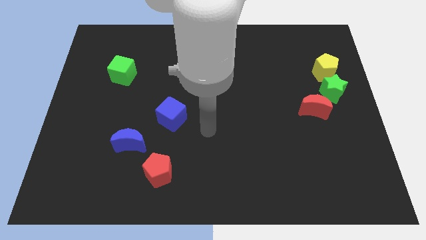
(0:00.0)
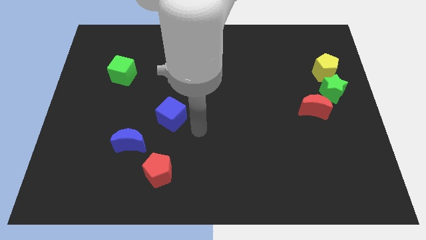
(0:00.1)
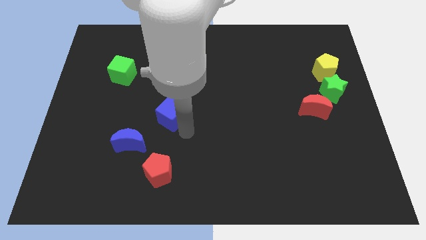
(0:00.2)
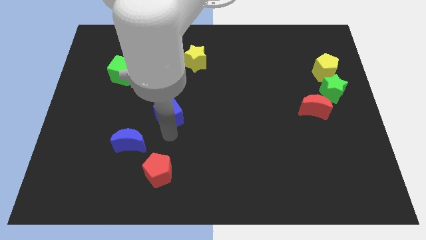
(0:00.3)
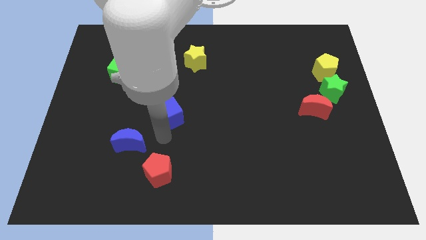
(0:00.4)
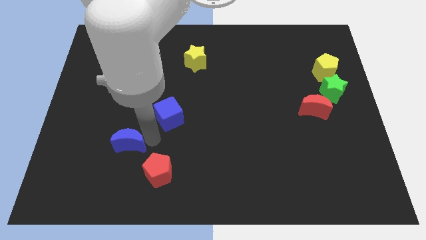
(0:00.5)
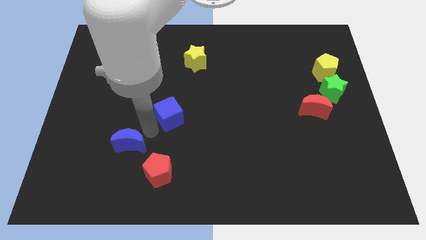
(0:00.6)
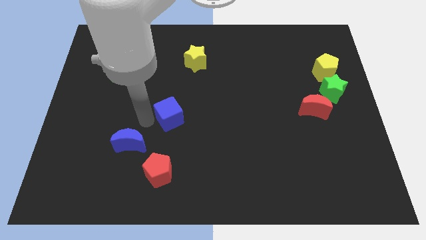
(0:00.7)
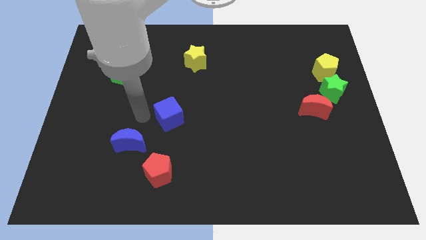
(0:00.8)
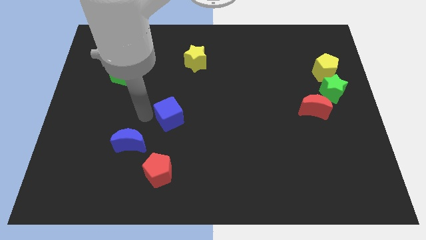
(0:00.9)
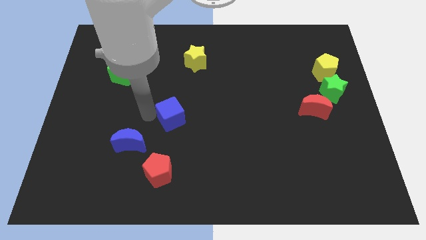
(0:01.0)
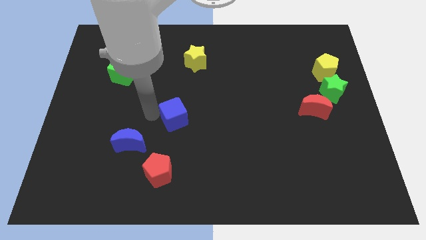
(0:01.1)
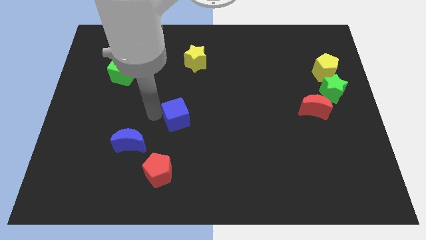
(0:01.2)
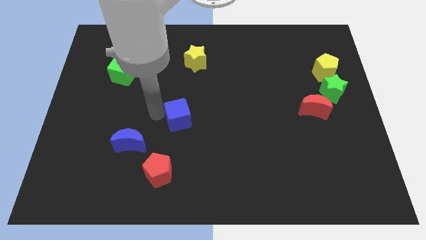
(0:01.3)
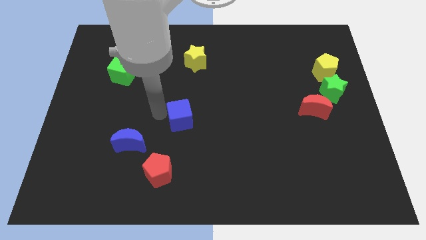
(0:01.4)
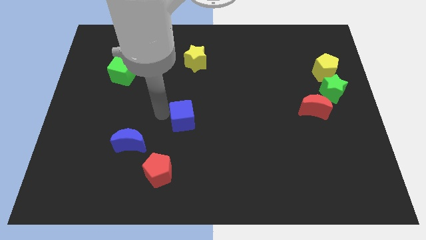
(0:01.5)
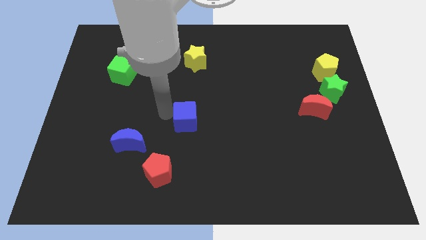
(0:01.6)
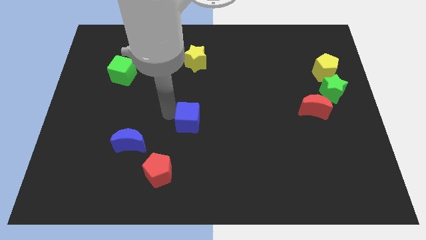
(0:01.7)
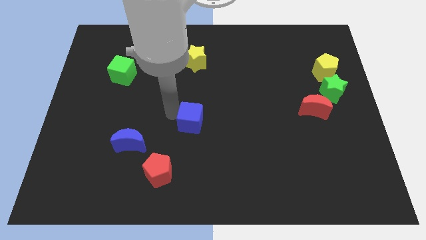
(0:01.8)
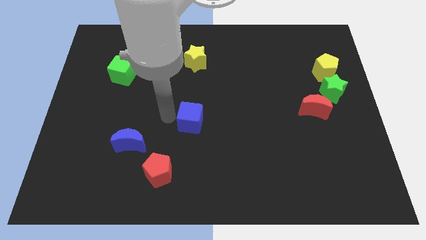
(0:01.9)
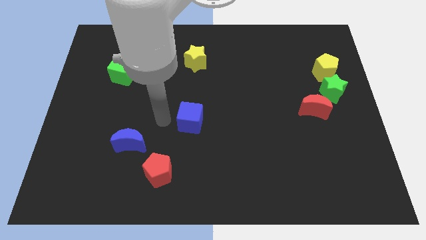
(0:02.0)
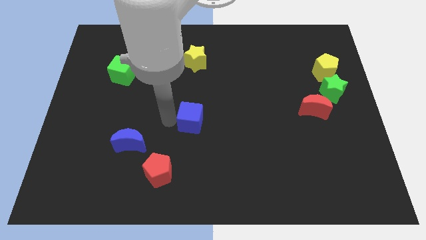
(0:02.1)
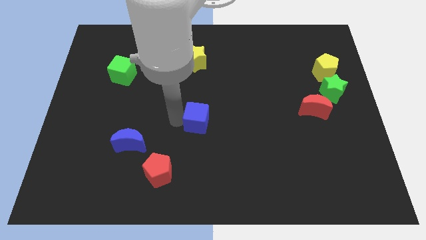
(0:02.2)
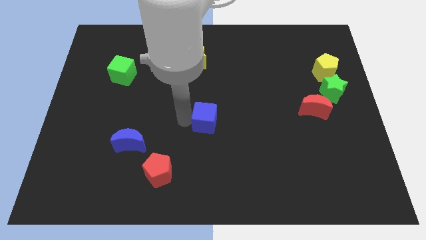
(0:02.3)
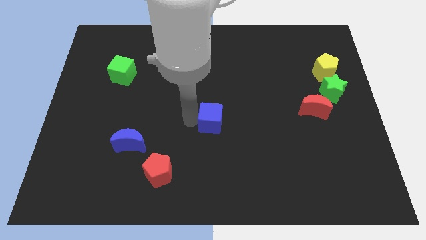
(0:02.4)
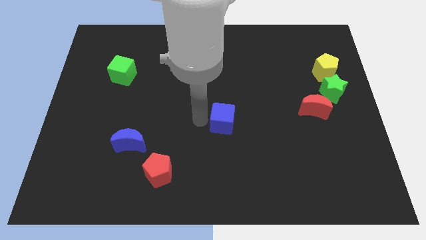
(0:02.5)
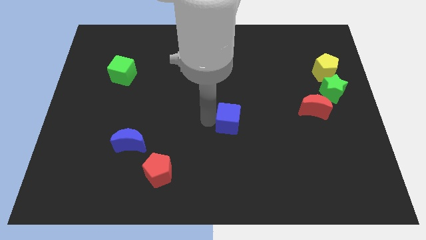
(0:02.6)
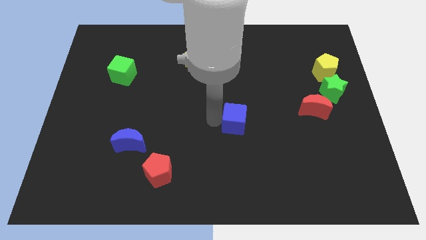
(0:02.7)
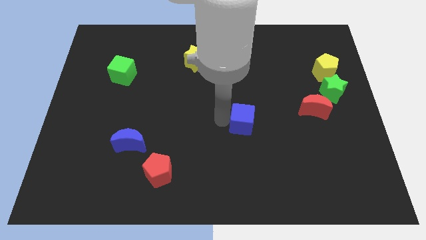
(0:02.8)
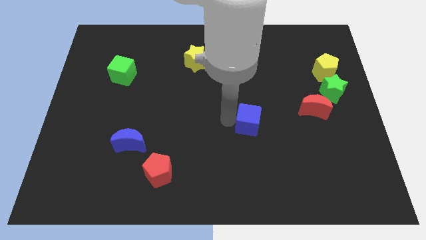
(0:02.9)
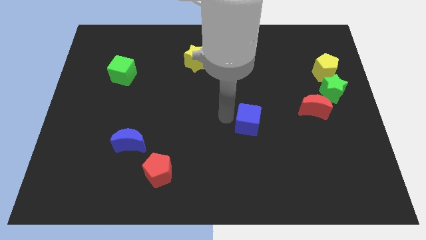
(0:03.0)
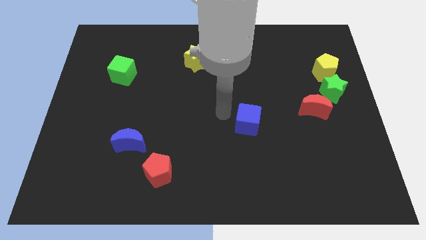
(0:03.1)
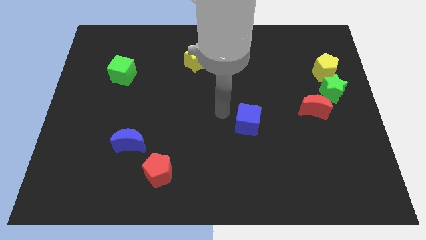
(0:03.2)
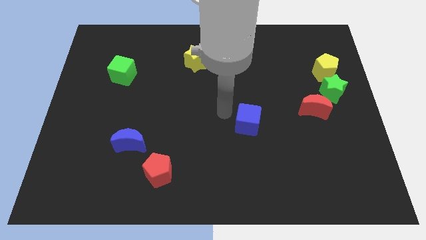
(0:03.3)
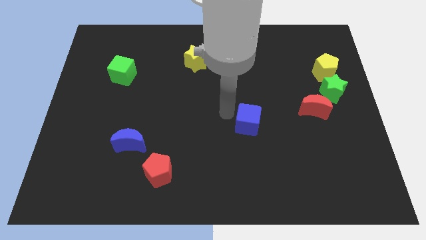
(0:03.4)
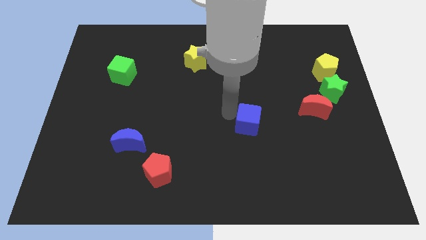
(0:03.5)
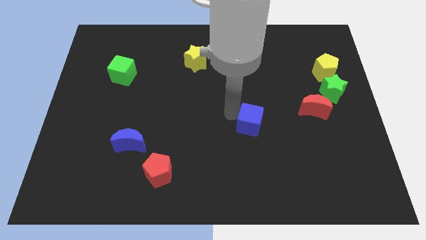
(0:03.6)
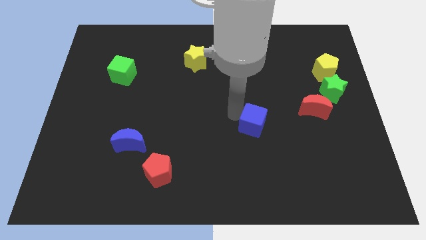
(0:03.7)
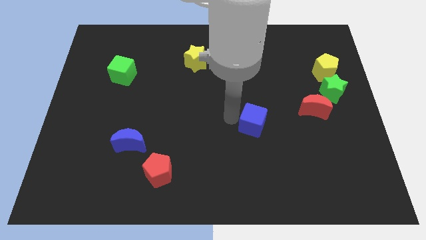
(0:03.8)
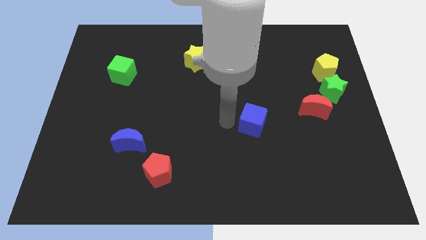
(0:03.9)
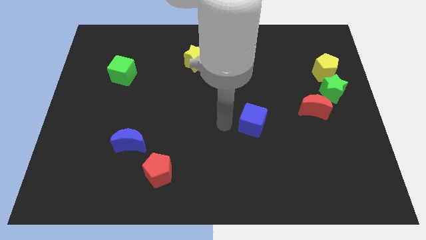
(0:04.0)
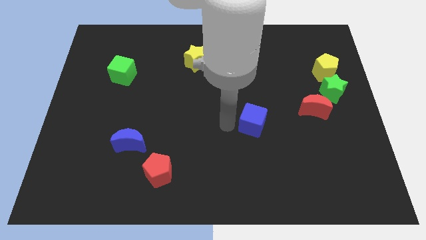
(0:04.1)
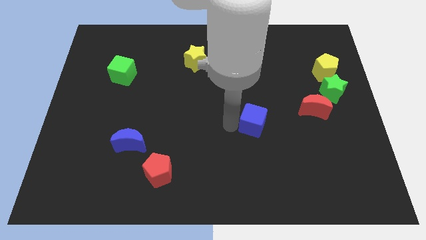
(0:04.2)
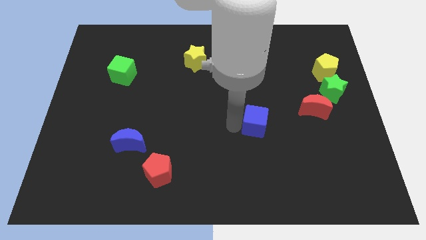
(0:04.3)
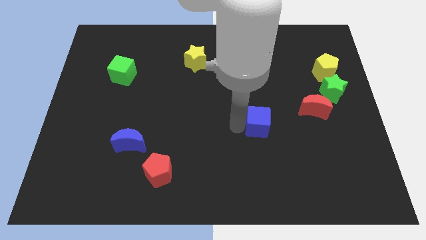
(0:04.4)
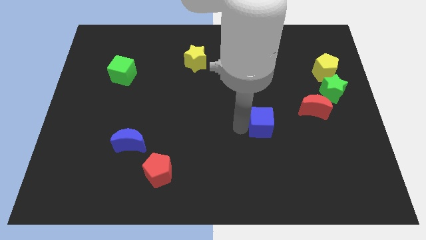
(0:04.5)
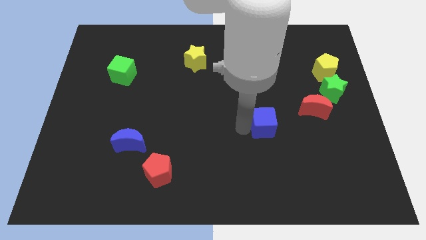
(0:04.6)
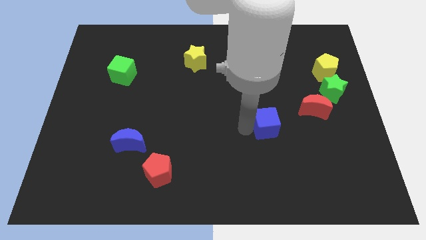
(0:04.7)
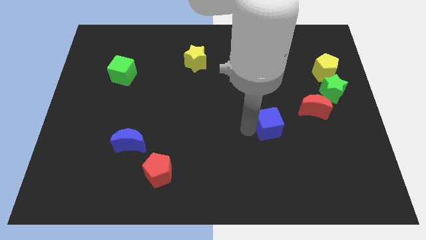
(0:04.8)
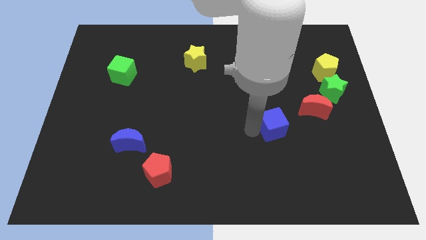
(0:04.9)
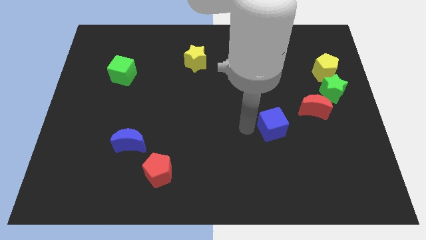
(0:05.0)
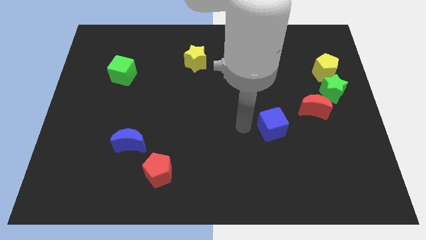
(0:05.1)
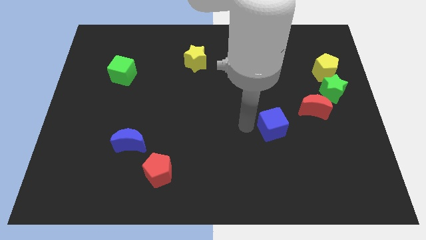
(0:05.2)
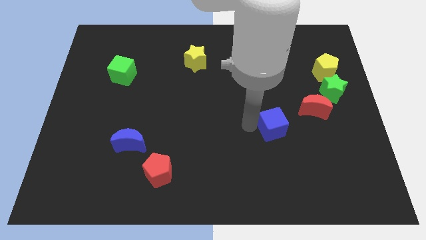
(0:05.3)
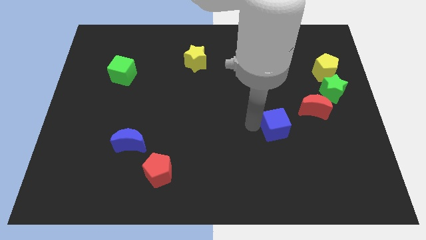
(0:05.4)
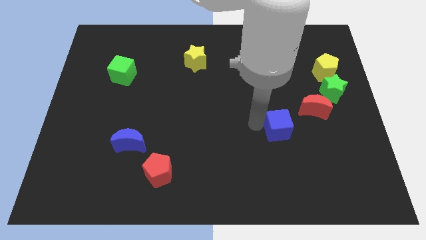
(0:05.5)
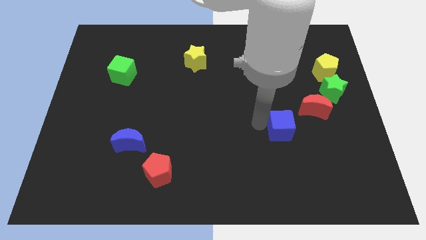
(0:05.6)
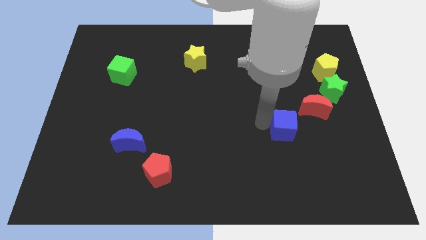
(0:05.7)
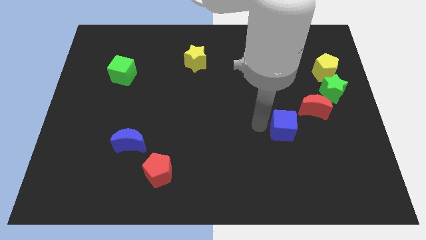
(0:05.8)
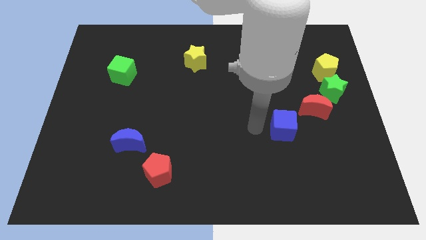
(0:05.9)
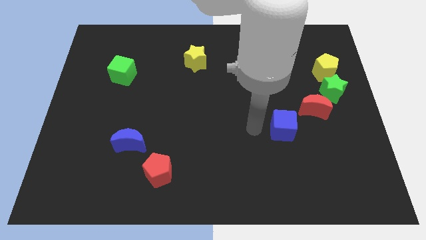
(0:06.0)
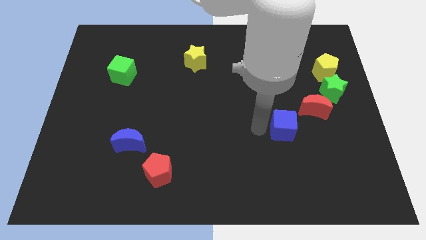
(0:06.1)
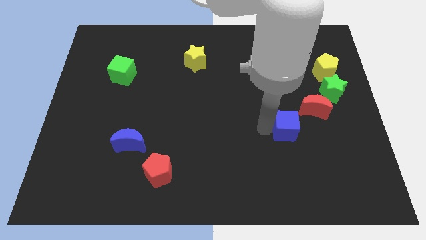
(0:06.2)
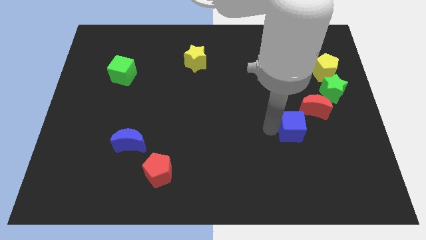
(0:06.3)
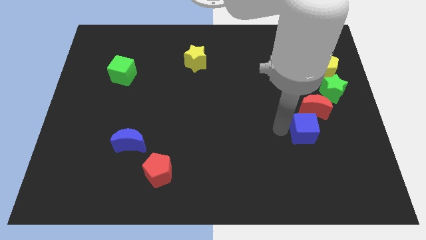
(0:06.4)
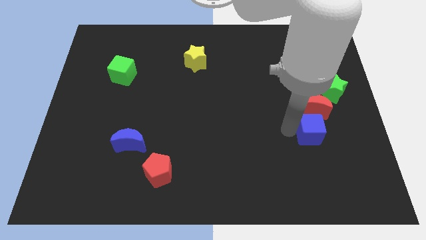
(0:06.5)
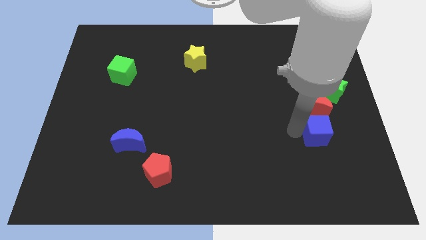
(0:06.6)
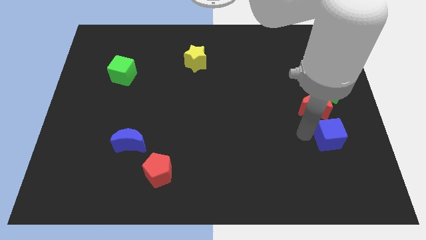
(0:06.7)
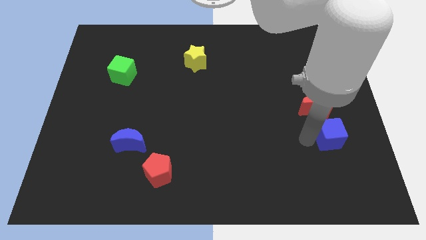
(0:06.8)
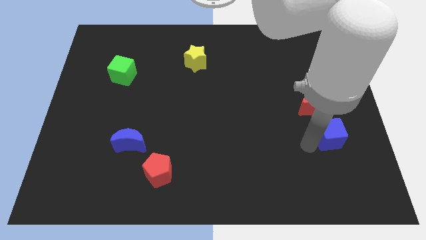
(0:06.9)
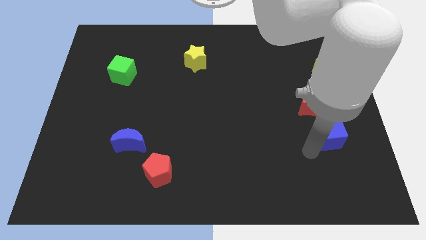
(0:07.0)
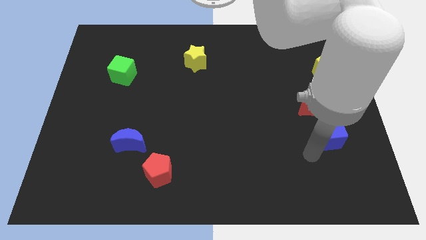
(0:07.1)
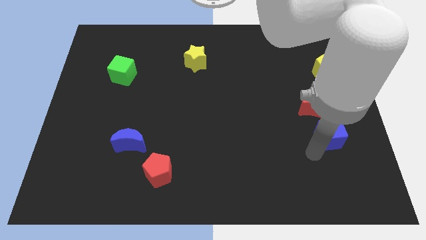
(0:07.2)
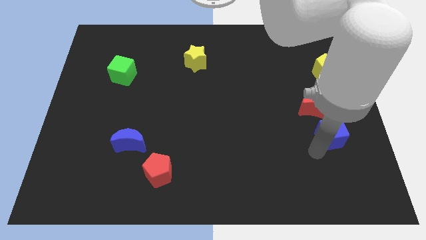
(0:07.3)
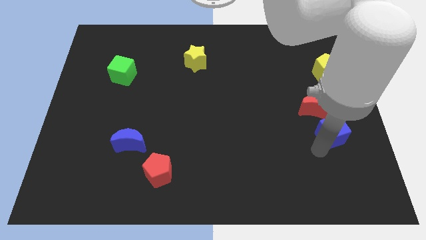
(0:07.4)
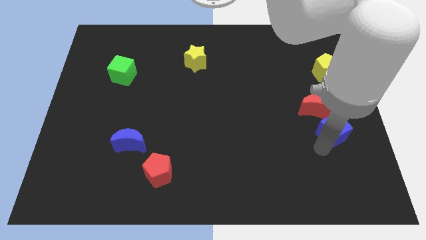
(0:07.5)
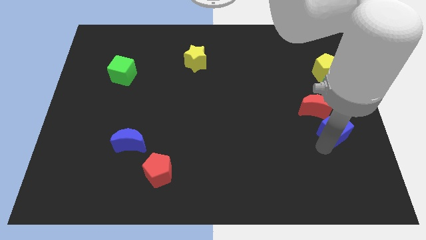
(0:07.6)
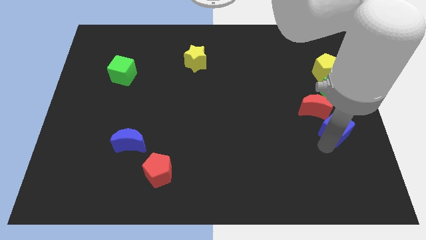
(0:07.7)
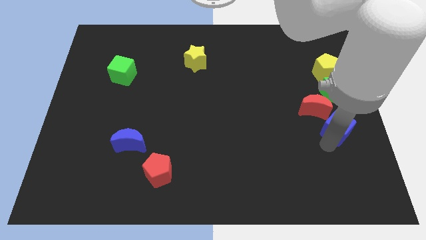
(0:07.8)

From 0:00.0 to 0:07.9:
push the blue cube to the center right
